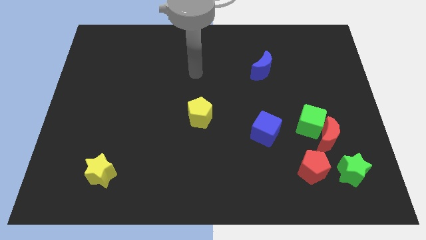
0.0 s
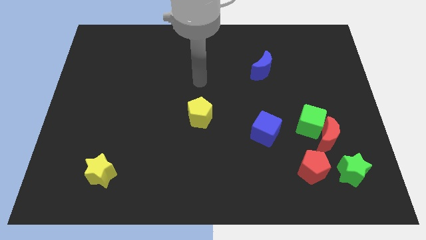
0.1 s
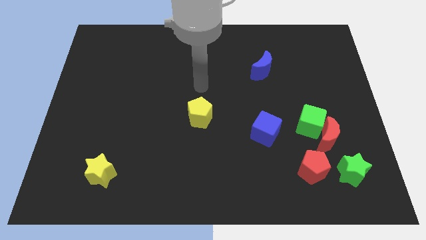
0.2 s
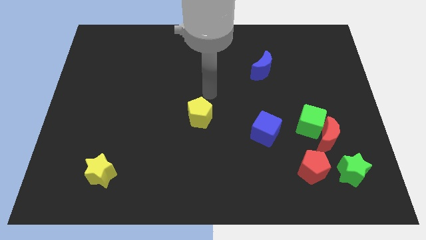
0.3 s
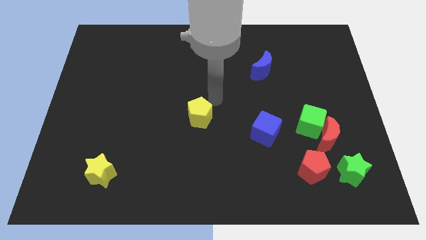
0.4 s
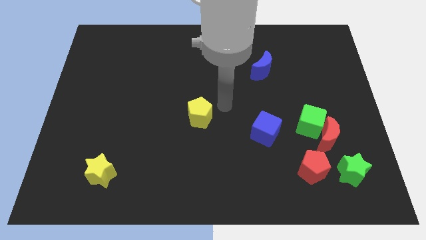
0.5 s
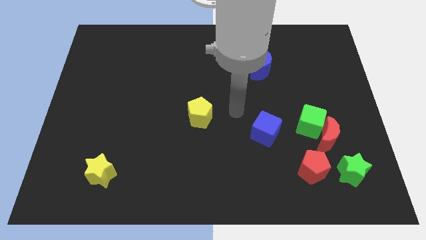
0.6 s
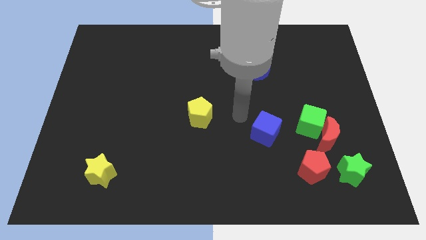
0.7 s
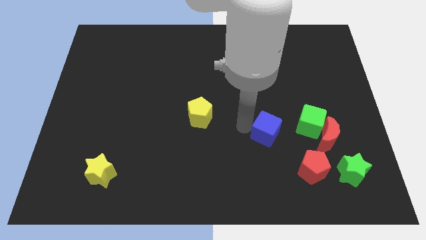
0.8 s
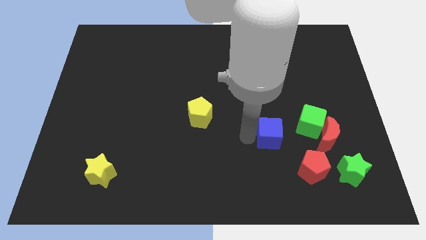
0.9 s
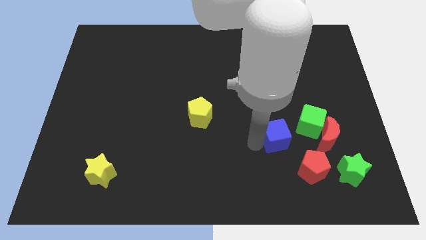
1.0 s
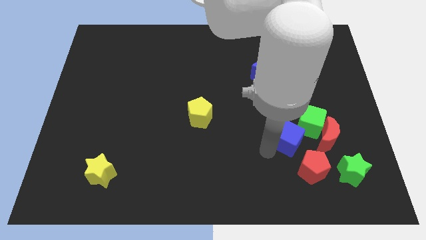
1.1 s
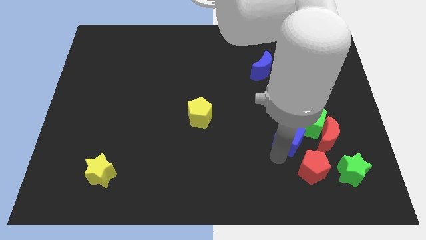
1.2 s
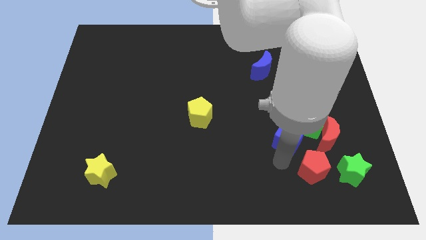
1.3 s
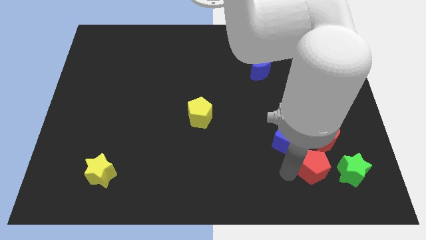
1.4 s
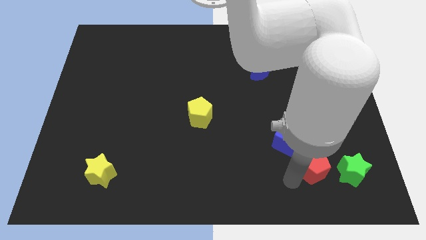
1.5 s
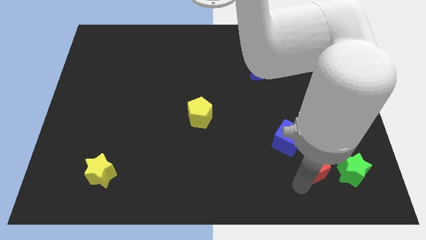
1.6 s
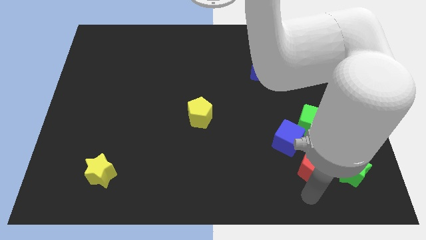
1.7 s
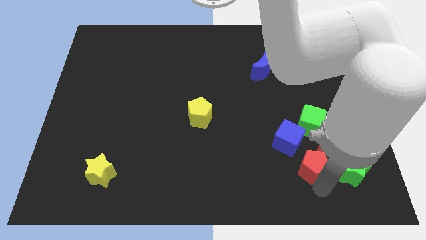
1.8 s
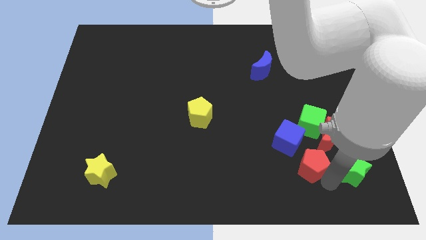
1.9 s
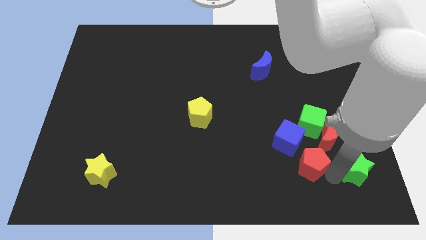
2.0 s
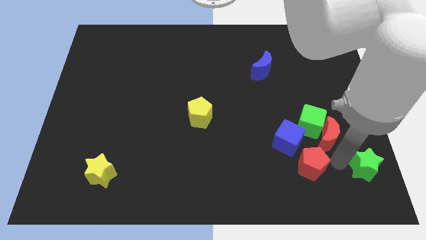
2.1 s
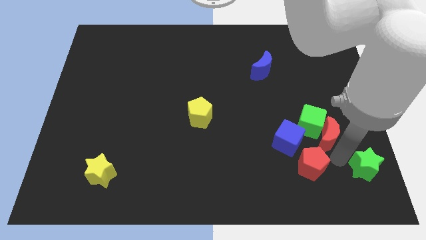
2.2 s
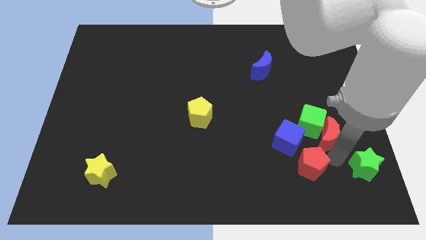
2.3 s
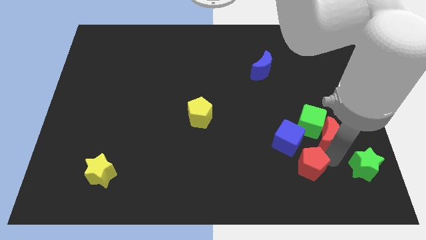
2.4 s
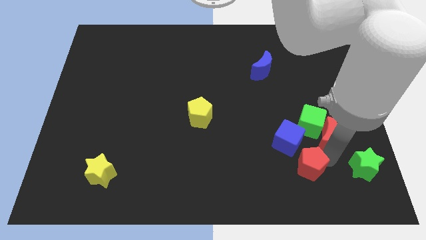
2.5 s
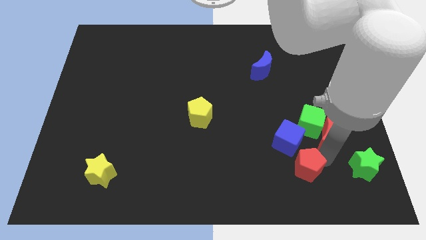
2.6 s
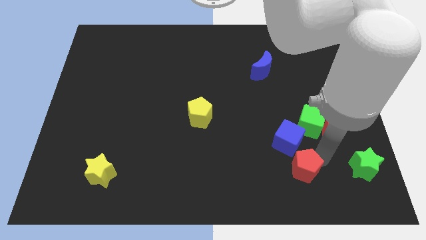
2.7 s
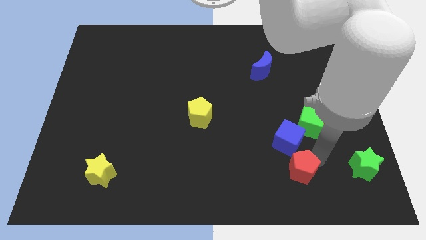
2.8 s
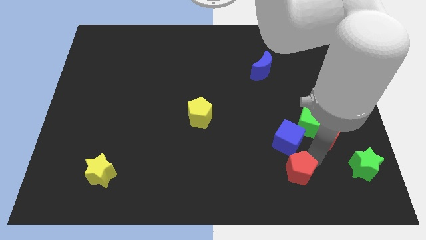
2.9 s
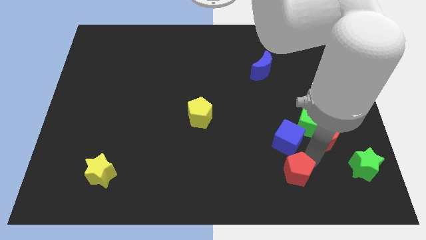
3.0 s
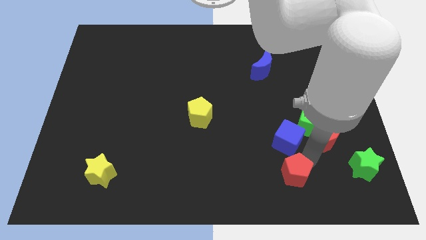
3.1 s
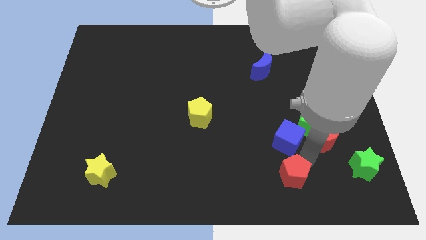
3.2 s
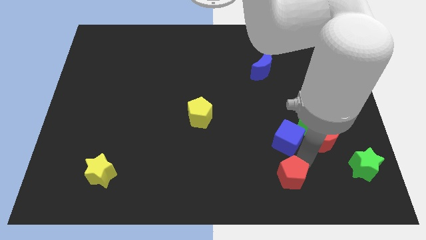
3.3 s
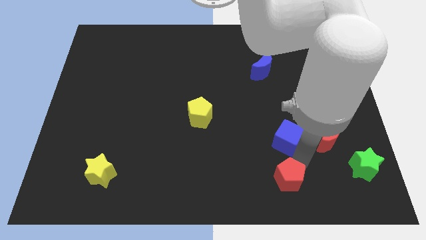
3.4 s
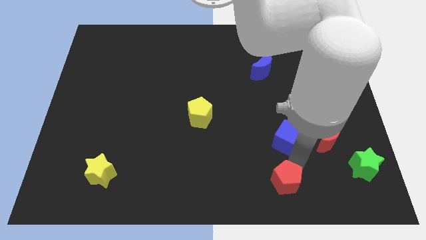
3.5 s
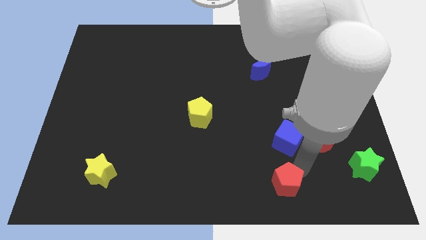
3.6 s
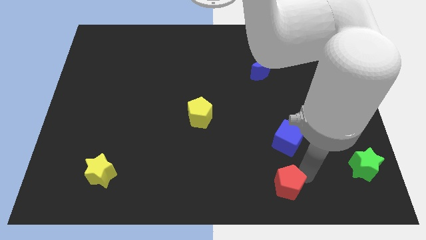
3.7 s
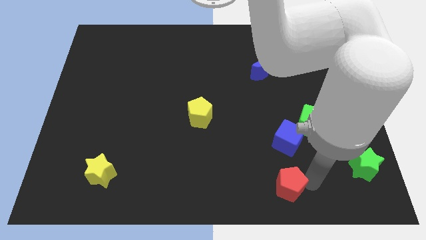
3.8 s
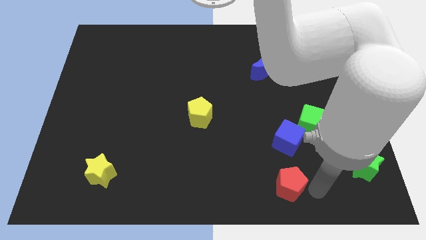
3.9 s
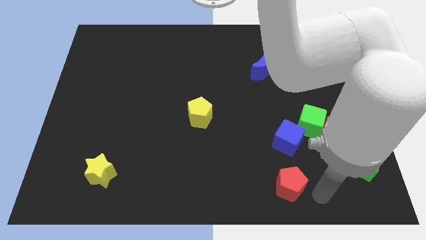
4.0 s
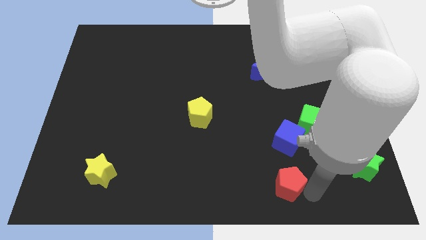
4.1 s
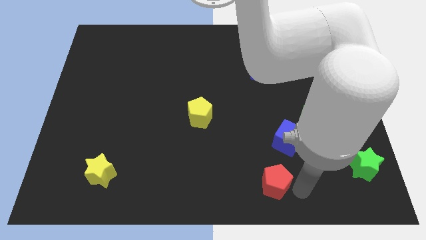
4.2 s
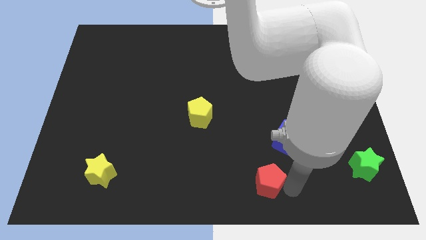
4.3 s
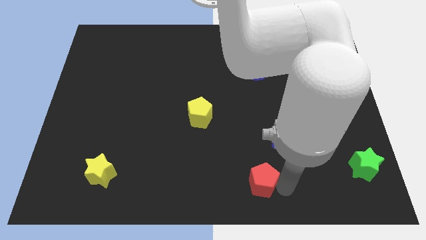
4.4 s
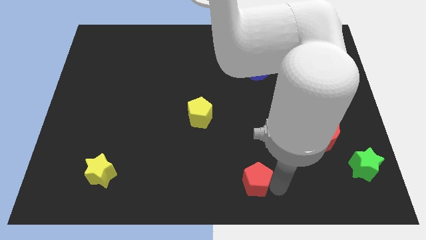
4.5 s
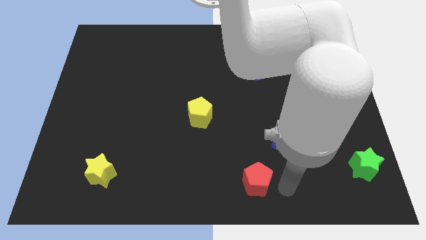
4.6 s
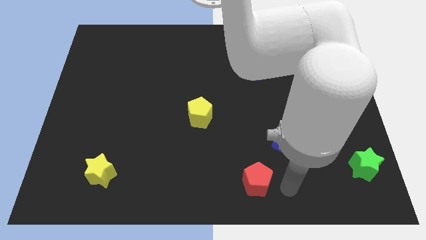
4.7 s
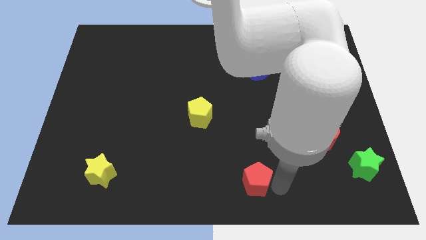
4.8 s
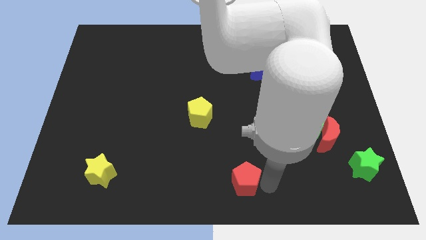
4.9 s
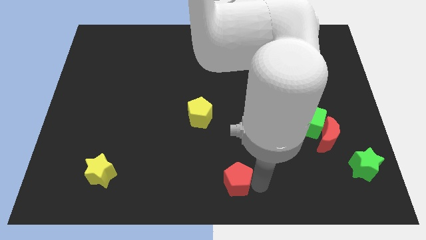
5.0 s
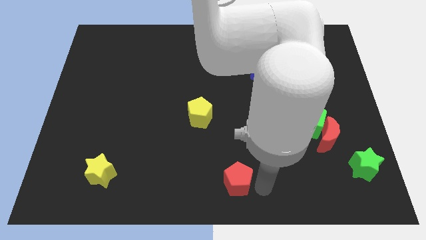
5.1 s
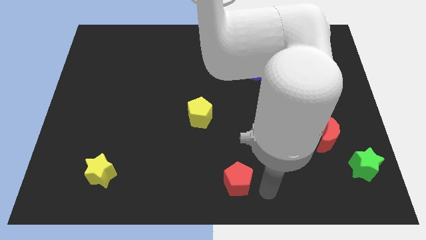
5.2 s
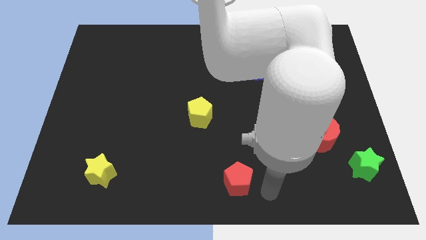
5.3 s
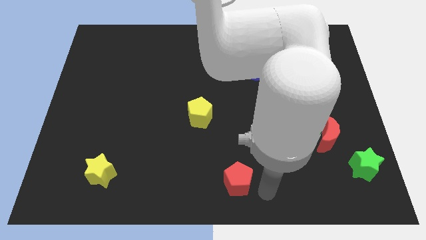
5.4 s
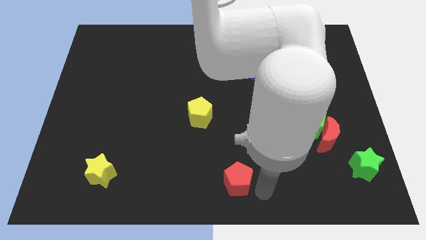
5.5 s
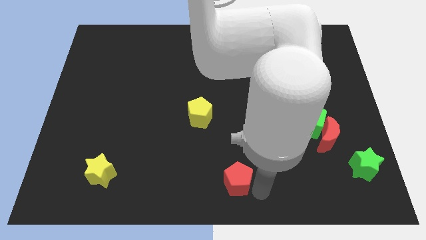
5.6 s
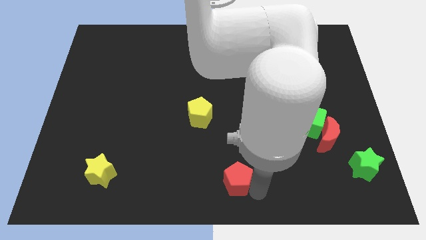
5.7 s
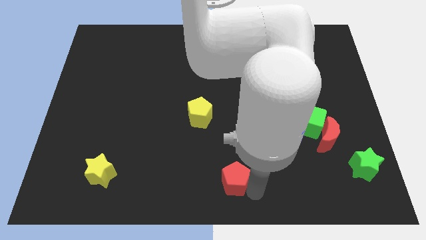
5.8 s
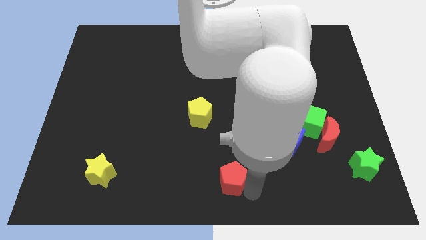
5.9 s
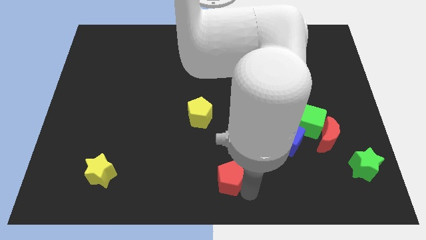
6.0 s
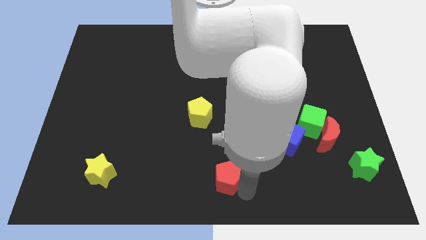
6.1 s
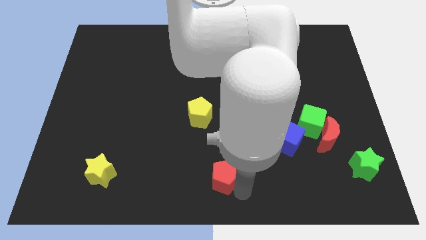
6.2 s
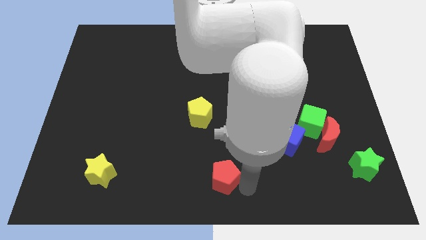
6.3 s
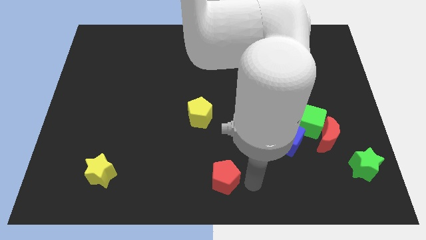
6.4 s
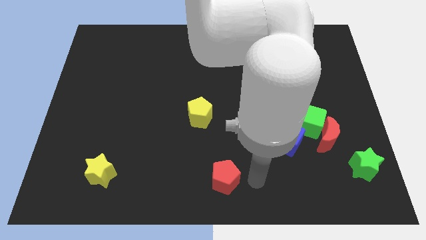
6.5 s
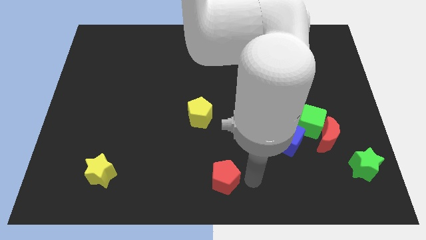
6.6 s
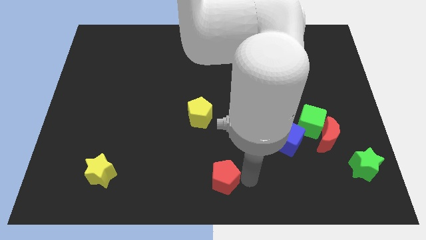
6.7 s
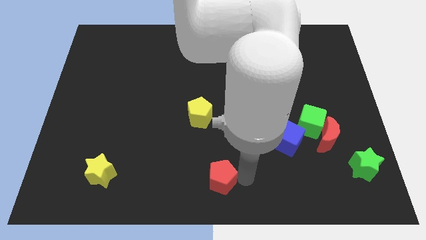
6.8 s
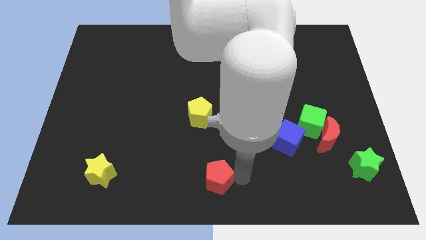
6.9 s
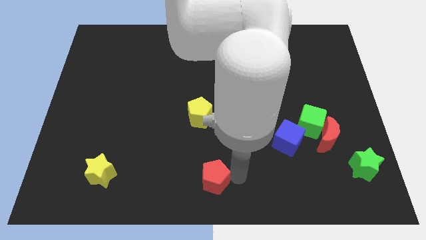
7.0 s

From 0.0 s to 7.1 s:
move the red pentagon left

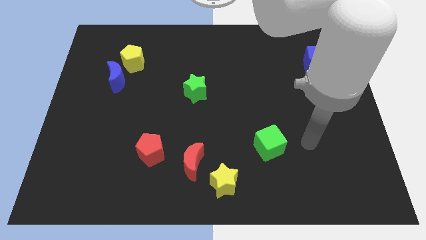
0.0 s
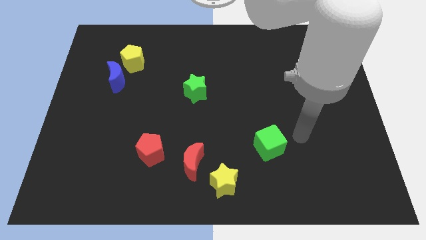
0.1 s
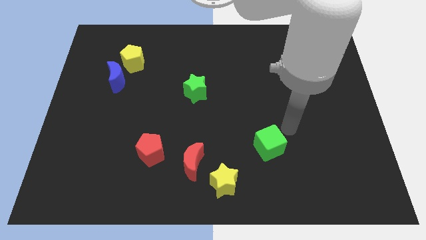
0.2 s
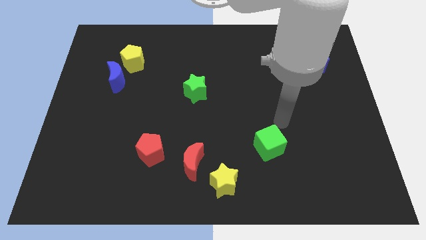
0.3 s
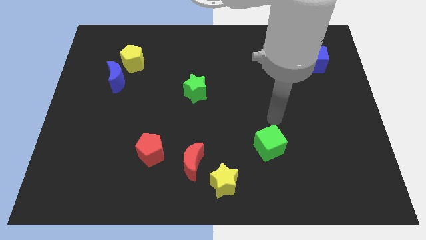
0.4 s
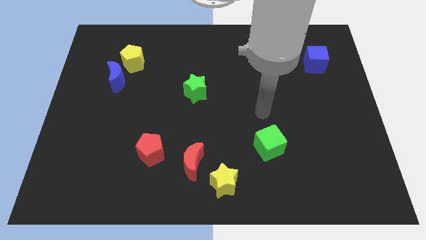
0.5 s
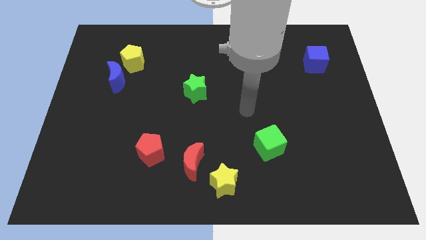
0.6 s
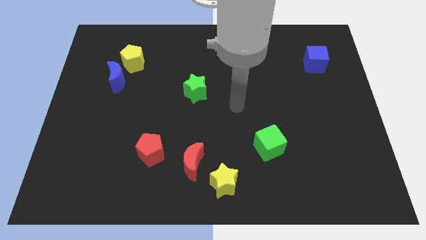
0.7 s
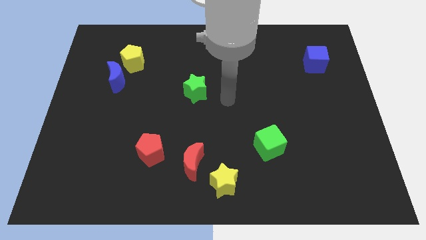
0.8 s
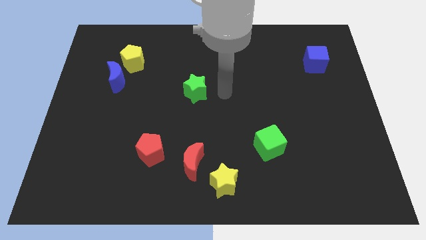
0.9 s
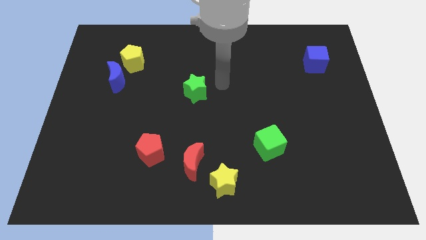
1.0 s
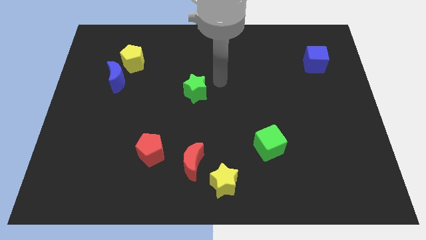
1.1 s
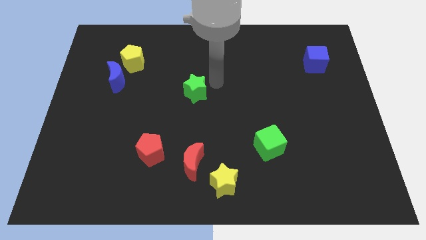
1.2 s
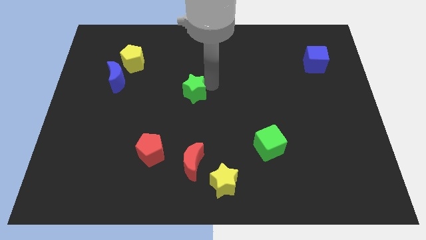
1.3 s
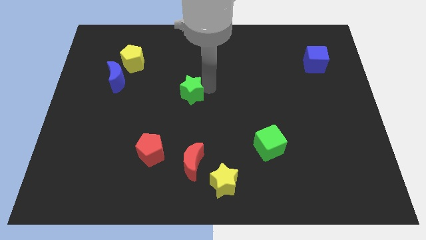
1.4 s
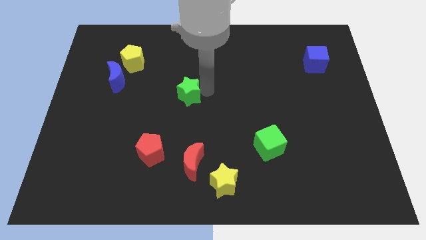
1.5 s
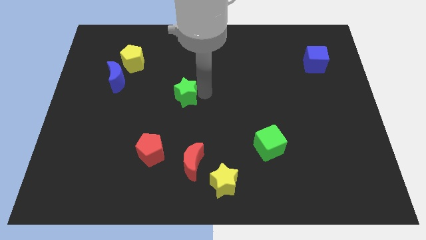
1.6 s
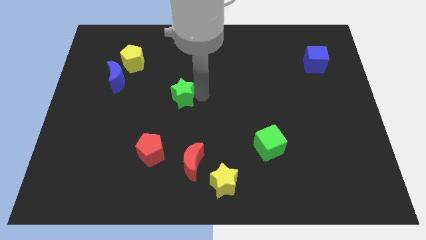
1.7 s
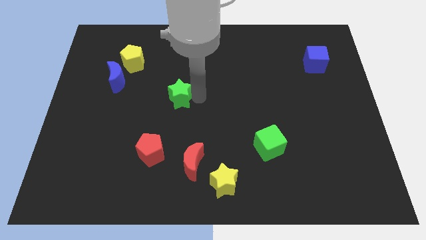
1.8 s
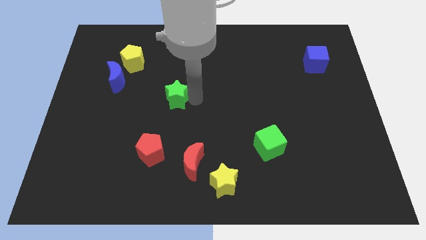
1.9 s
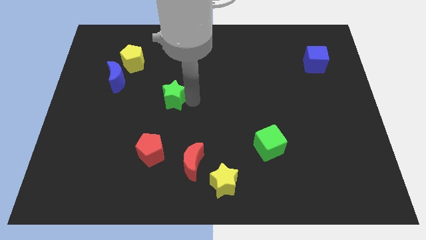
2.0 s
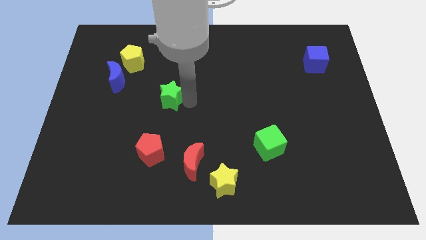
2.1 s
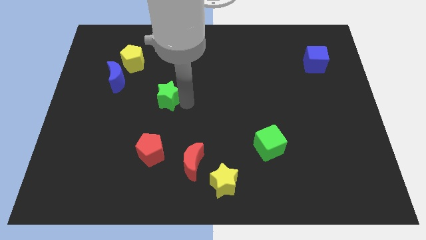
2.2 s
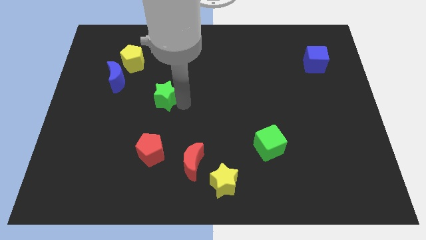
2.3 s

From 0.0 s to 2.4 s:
slightly move the green star to the left
